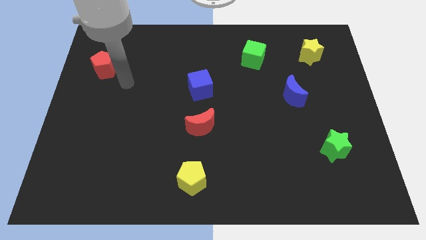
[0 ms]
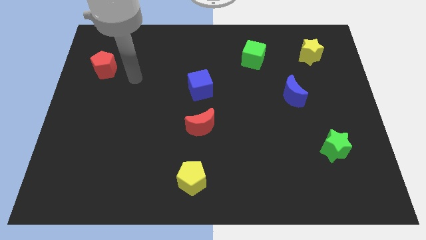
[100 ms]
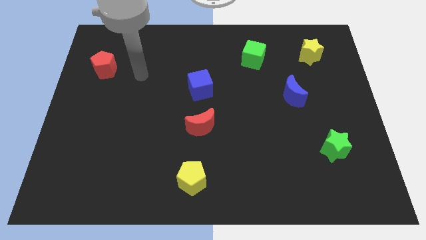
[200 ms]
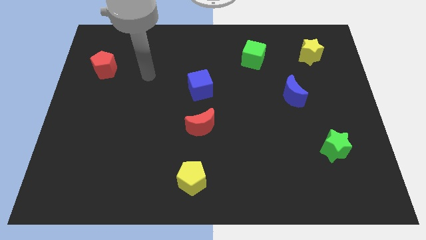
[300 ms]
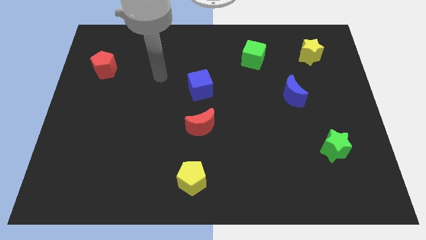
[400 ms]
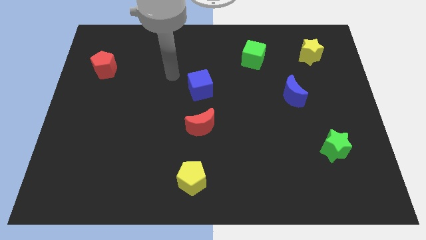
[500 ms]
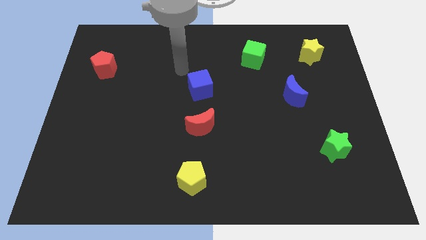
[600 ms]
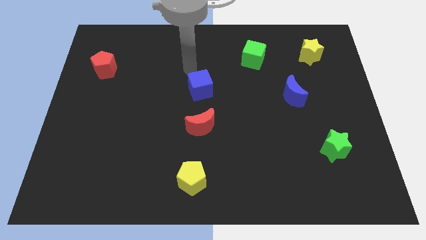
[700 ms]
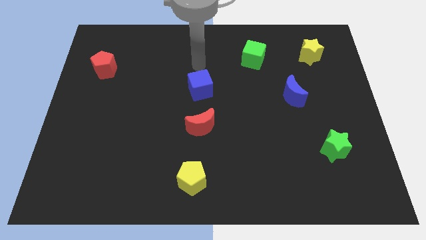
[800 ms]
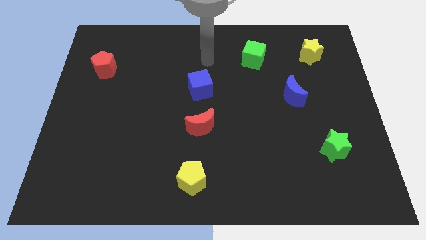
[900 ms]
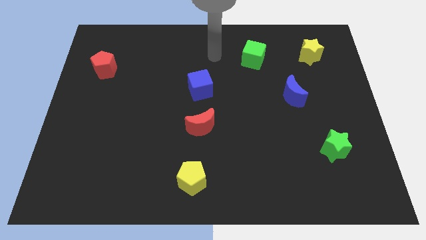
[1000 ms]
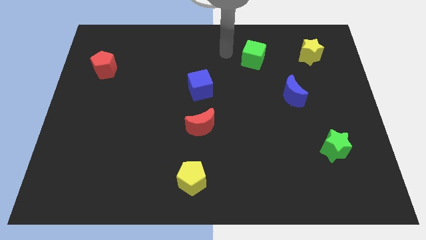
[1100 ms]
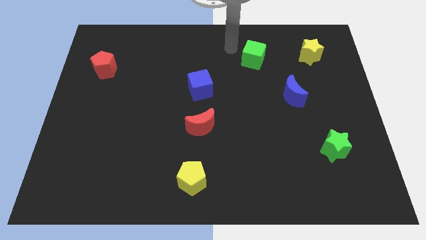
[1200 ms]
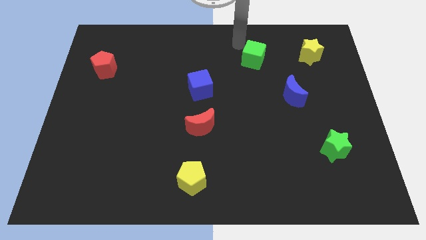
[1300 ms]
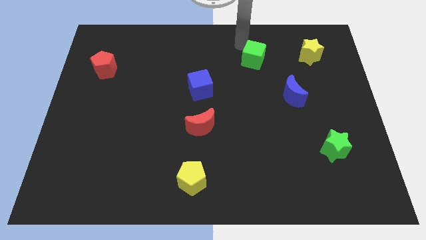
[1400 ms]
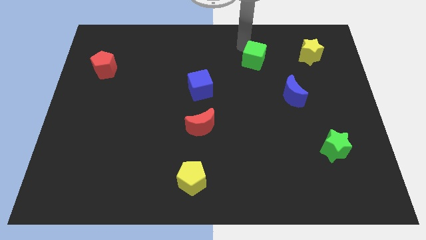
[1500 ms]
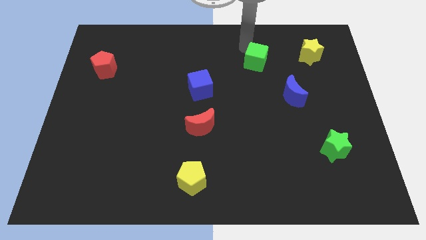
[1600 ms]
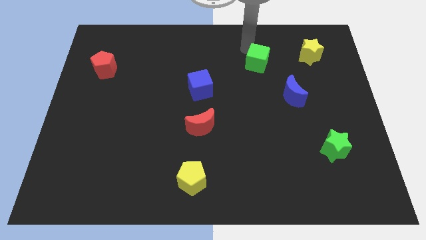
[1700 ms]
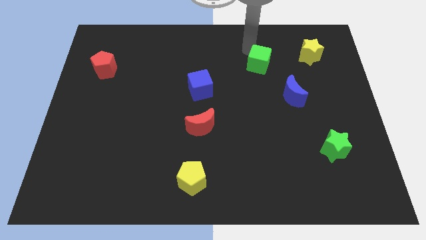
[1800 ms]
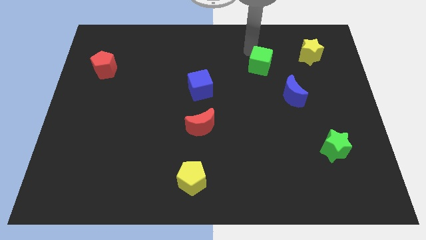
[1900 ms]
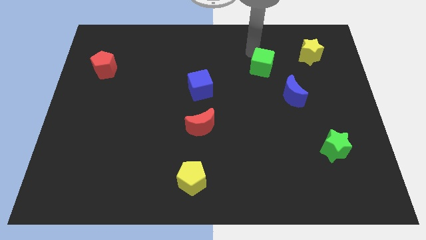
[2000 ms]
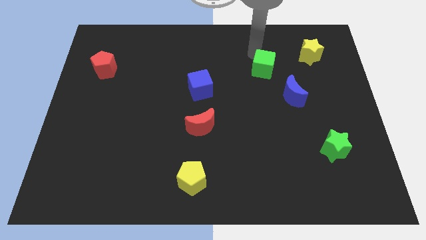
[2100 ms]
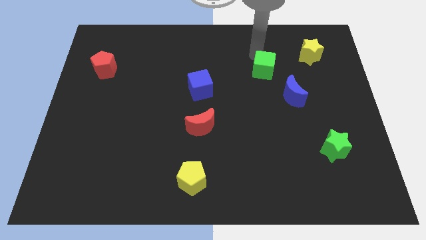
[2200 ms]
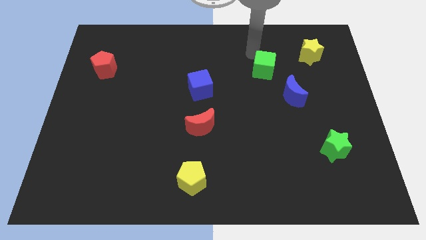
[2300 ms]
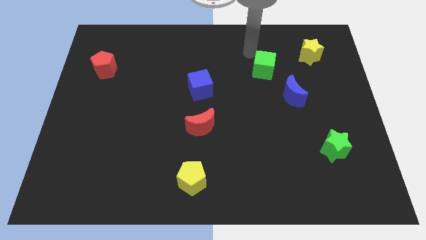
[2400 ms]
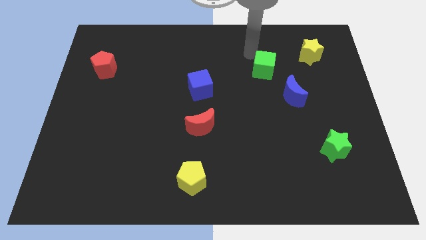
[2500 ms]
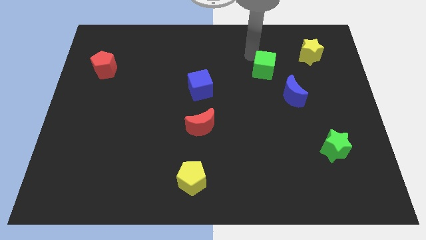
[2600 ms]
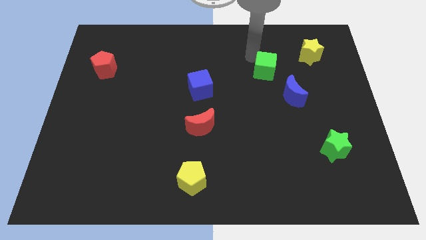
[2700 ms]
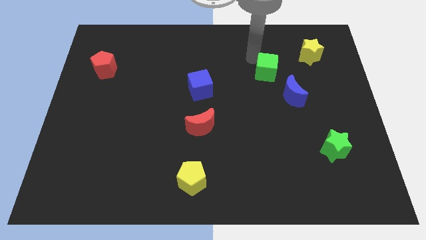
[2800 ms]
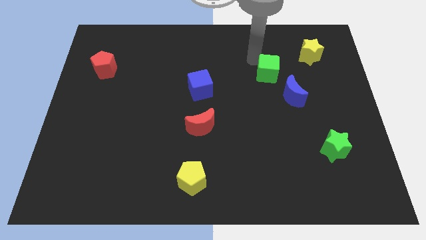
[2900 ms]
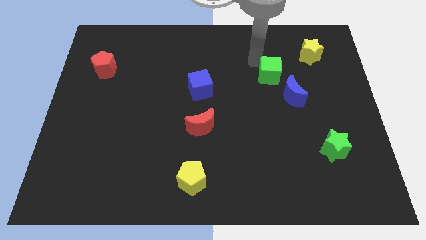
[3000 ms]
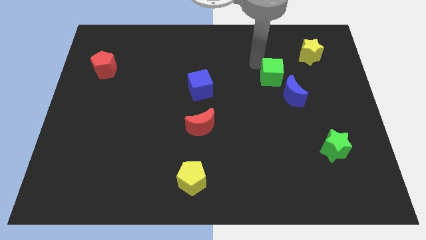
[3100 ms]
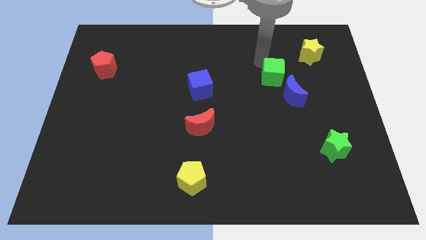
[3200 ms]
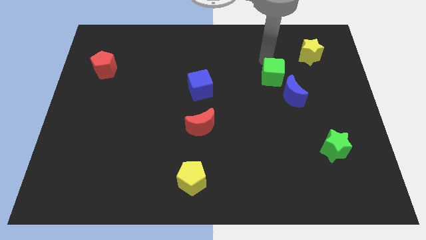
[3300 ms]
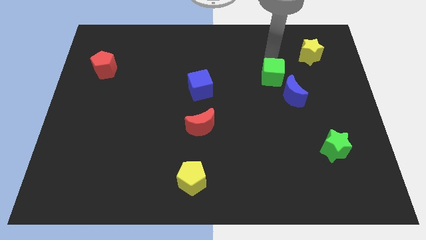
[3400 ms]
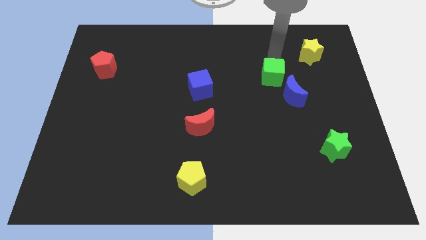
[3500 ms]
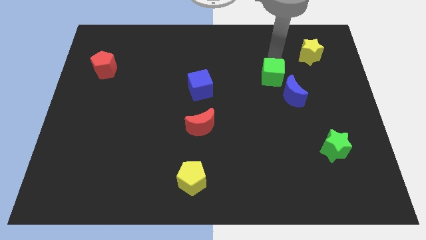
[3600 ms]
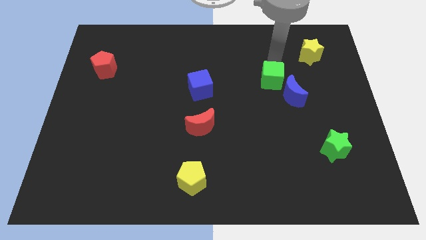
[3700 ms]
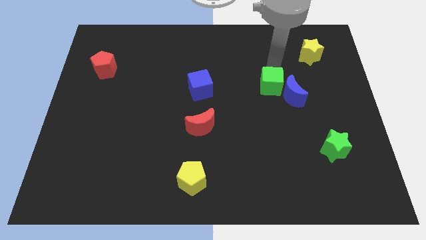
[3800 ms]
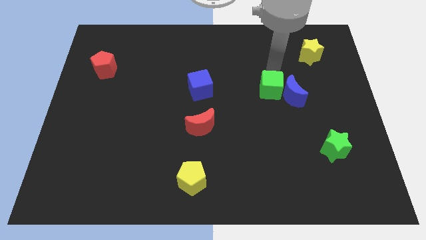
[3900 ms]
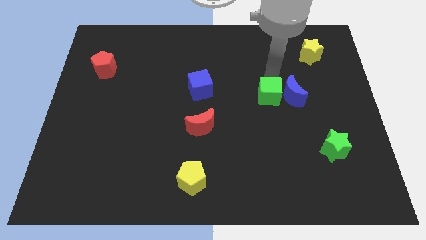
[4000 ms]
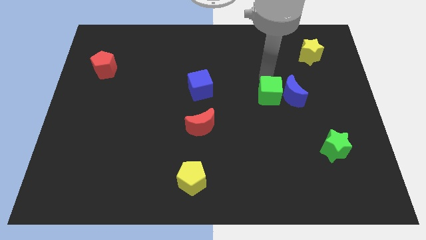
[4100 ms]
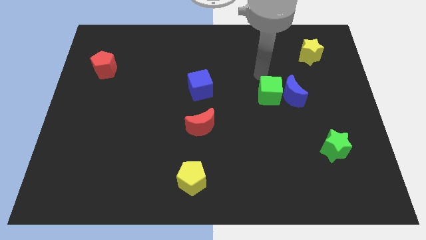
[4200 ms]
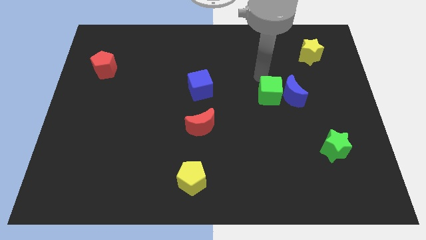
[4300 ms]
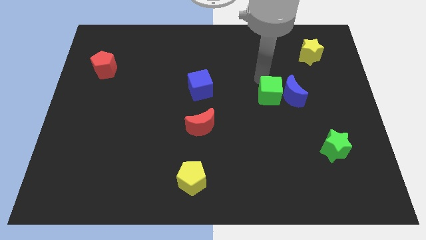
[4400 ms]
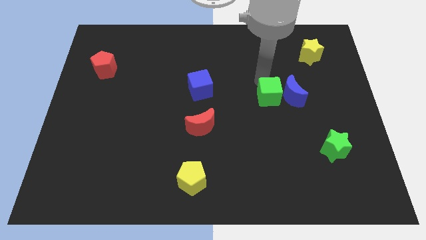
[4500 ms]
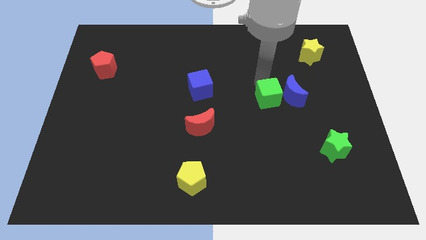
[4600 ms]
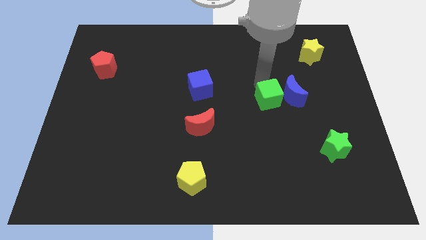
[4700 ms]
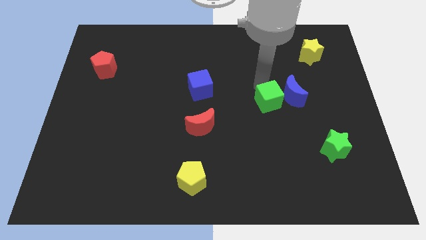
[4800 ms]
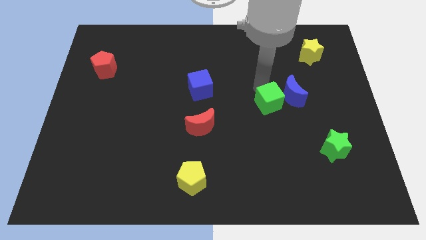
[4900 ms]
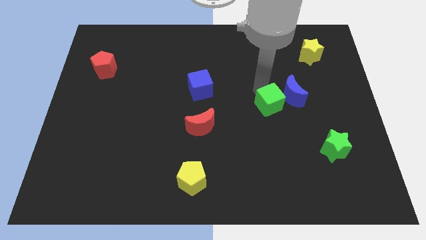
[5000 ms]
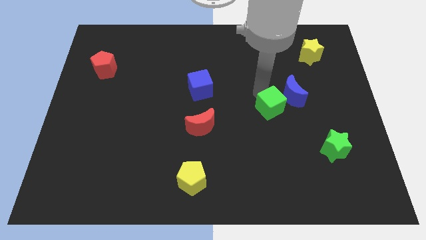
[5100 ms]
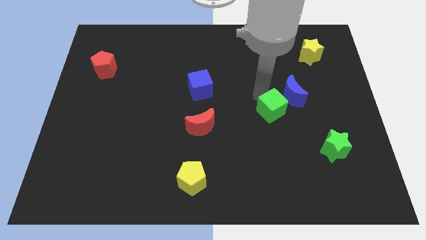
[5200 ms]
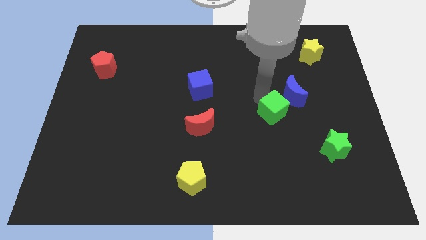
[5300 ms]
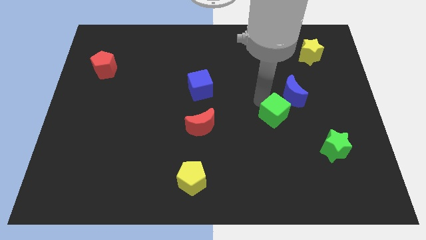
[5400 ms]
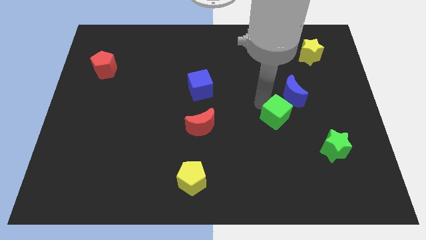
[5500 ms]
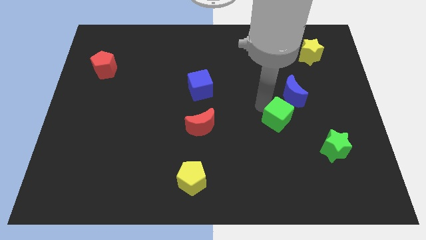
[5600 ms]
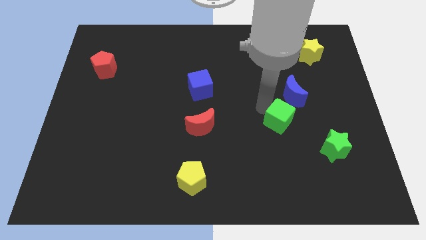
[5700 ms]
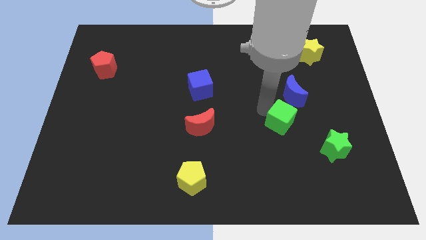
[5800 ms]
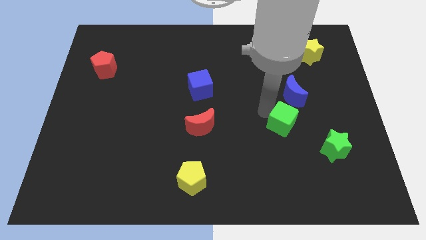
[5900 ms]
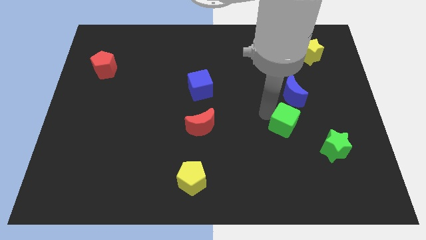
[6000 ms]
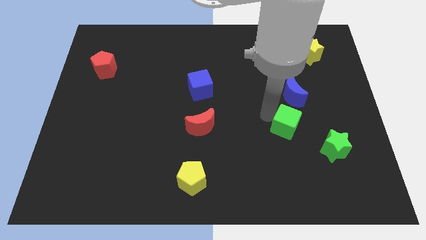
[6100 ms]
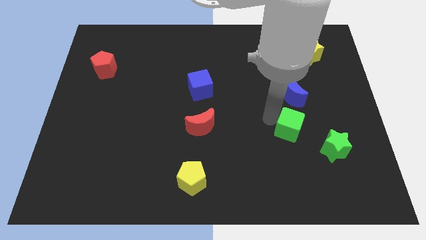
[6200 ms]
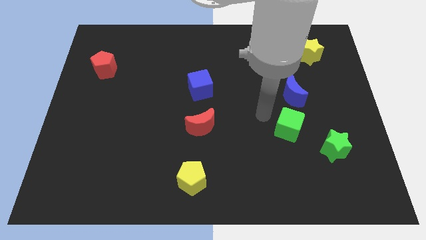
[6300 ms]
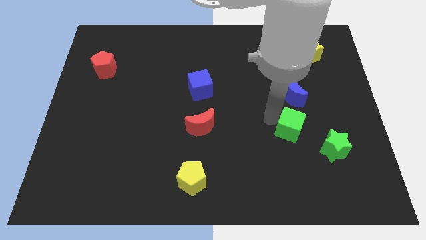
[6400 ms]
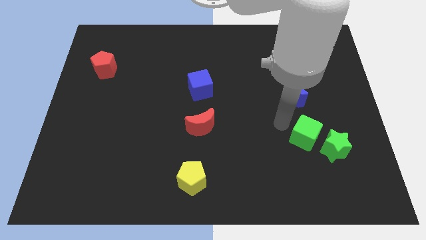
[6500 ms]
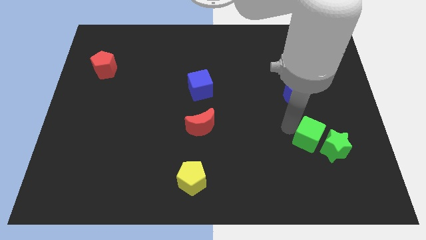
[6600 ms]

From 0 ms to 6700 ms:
slide the green cube to the green star
